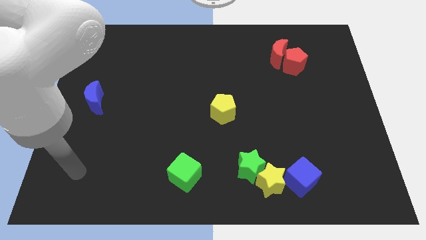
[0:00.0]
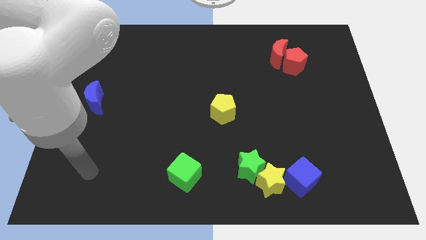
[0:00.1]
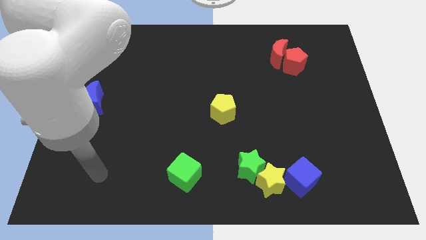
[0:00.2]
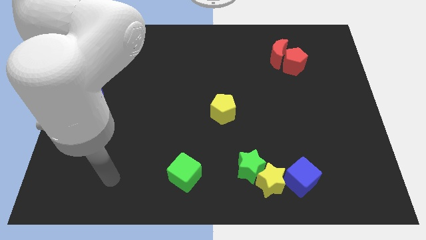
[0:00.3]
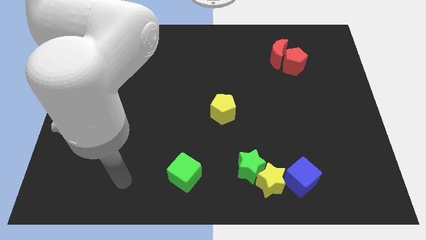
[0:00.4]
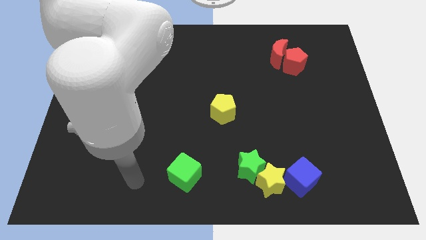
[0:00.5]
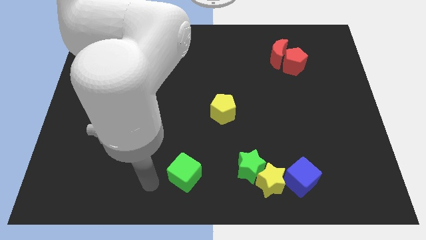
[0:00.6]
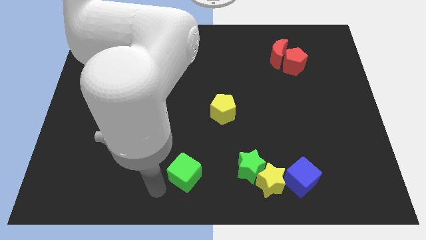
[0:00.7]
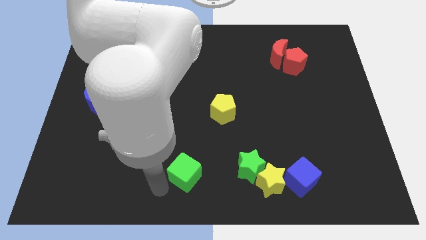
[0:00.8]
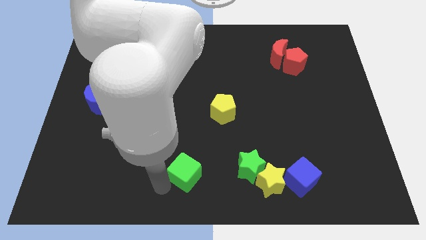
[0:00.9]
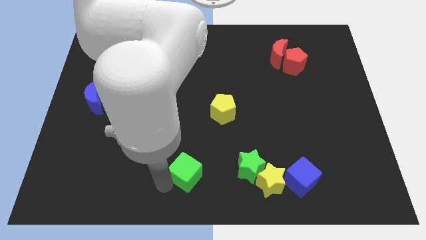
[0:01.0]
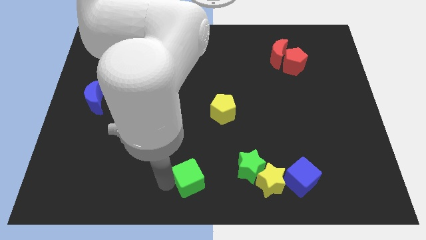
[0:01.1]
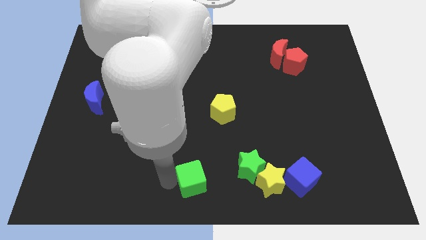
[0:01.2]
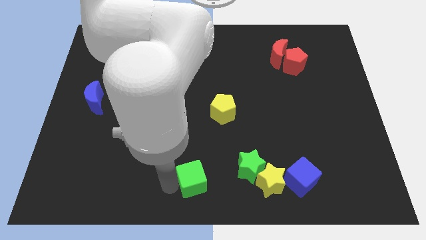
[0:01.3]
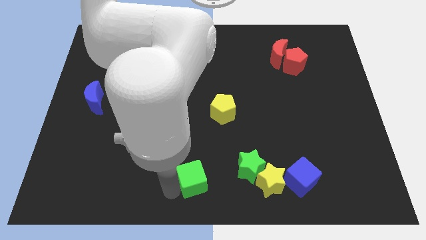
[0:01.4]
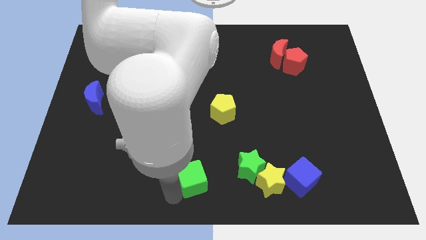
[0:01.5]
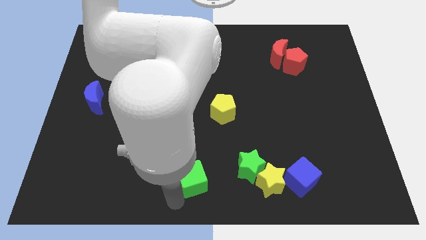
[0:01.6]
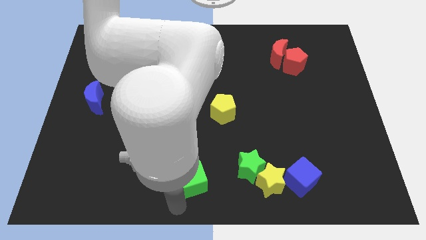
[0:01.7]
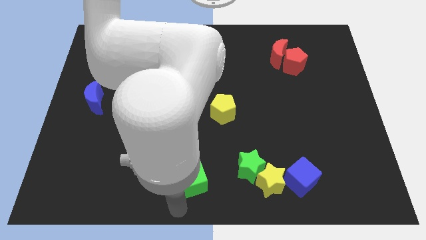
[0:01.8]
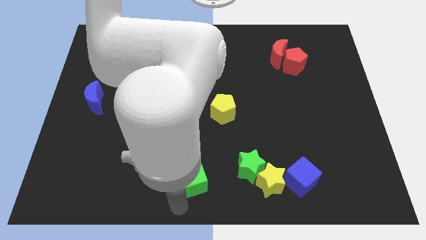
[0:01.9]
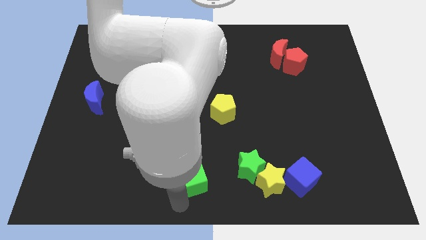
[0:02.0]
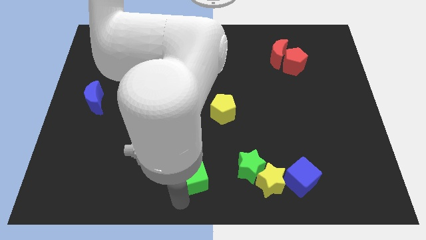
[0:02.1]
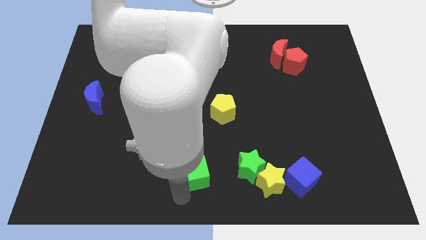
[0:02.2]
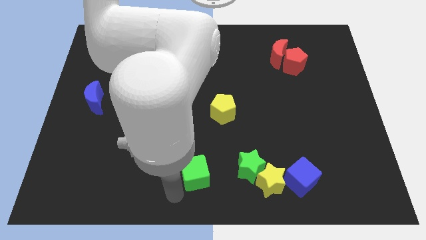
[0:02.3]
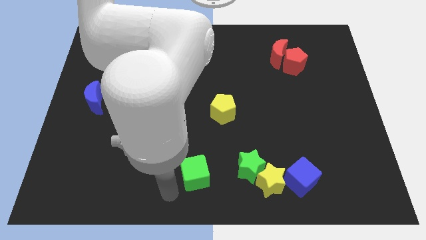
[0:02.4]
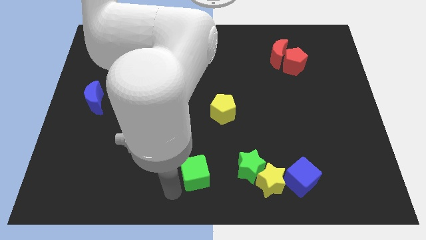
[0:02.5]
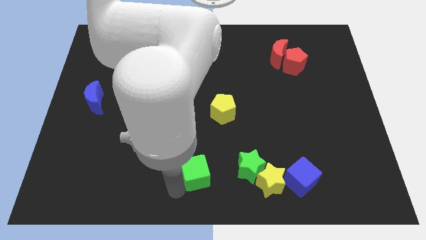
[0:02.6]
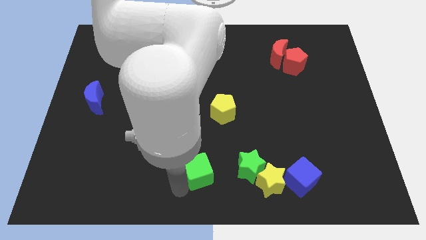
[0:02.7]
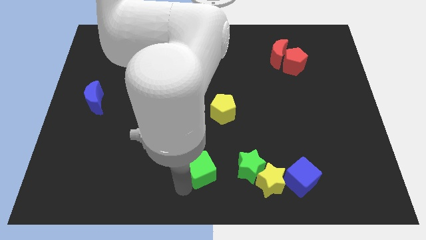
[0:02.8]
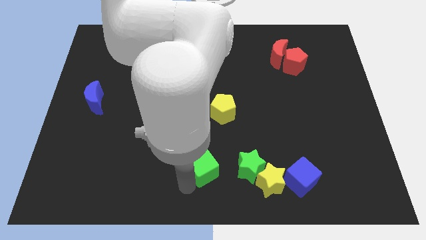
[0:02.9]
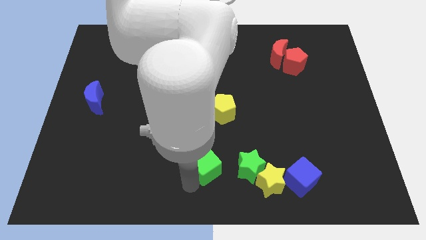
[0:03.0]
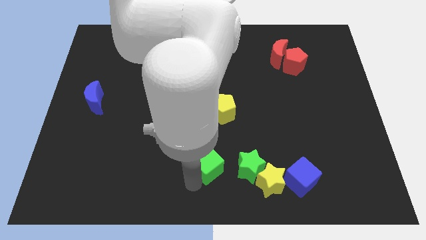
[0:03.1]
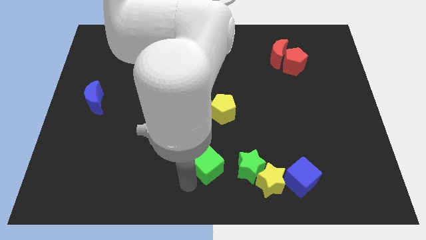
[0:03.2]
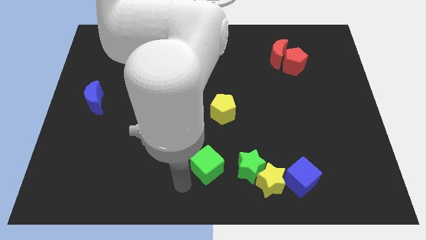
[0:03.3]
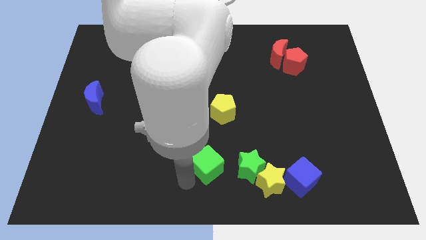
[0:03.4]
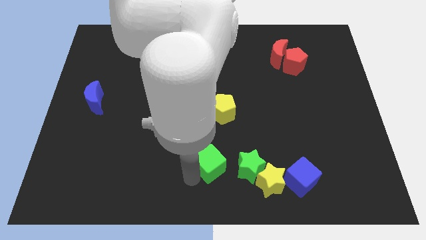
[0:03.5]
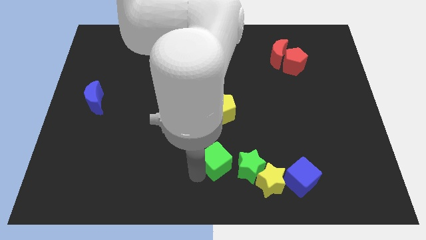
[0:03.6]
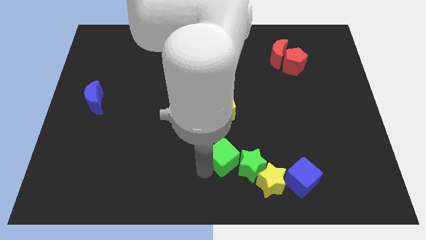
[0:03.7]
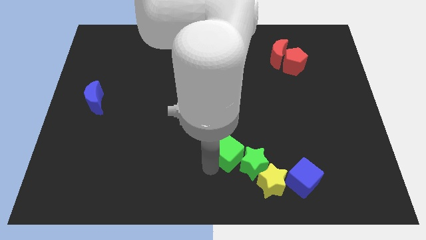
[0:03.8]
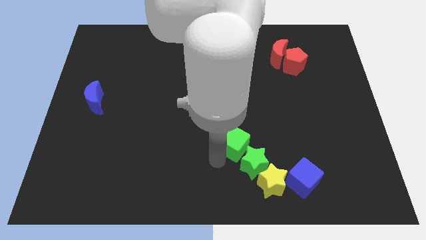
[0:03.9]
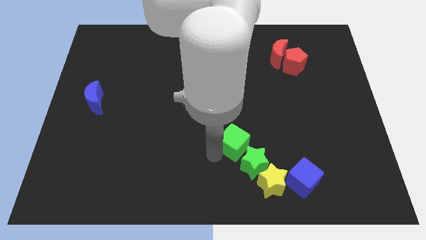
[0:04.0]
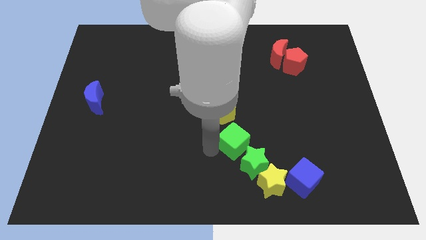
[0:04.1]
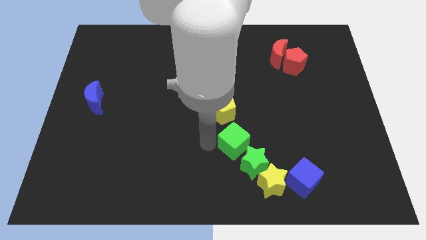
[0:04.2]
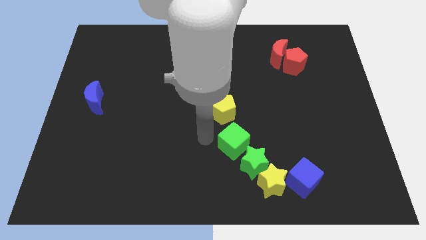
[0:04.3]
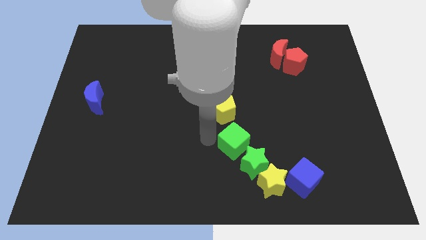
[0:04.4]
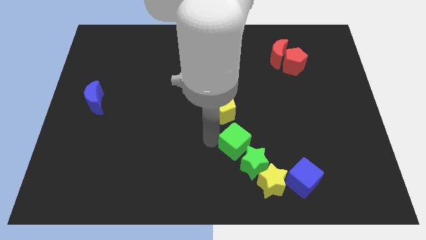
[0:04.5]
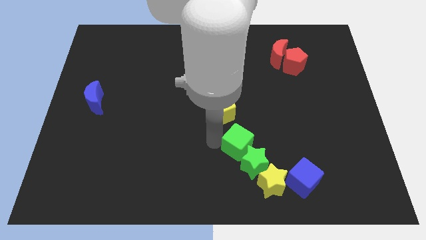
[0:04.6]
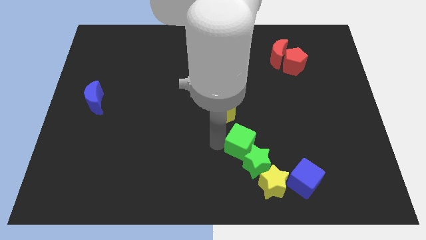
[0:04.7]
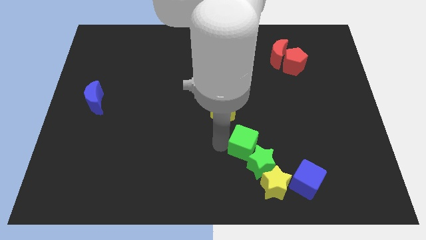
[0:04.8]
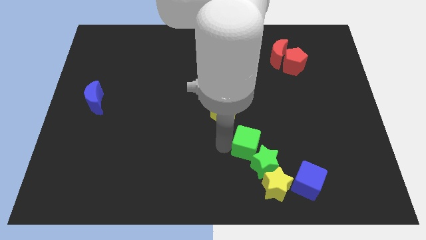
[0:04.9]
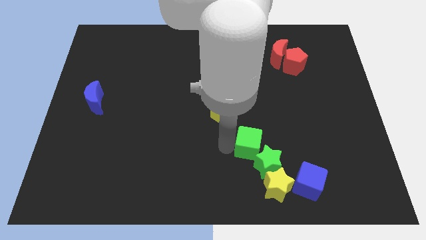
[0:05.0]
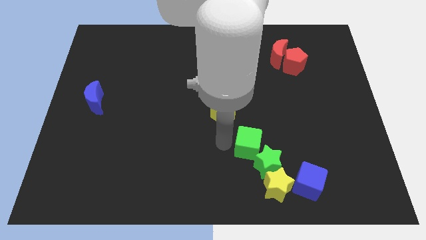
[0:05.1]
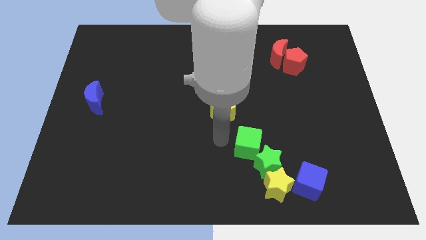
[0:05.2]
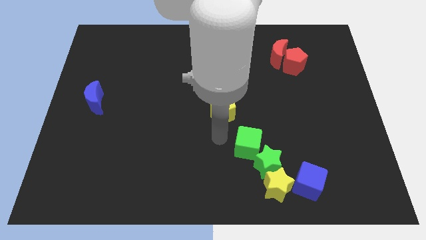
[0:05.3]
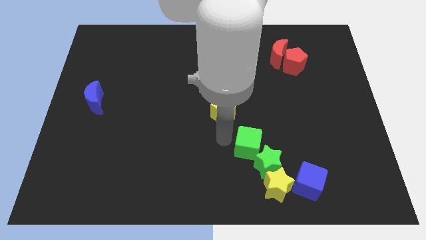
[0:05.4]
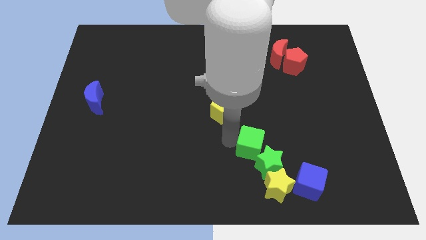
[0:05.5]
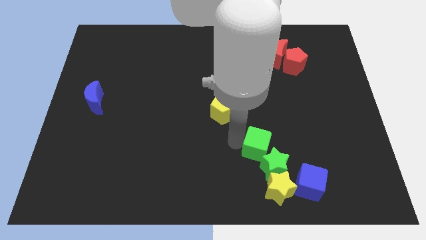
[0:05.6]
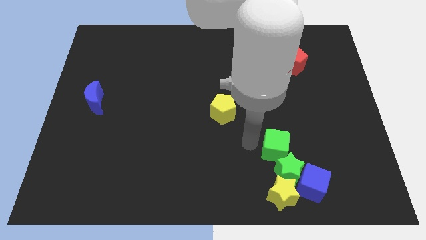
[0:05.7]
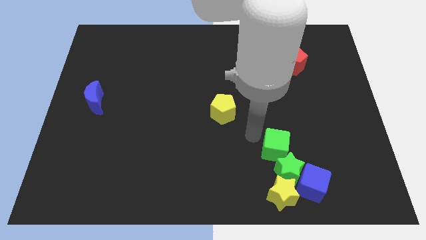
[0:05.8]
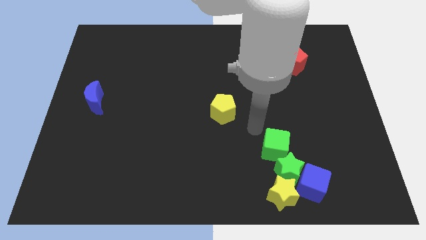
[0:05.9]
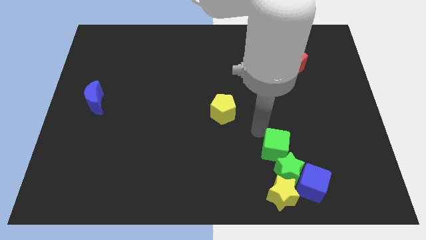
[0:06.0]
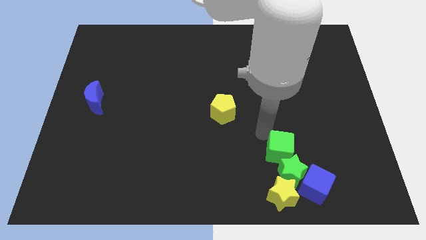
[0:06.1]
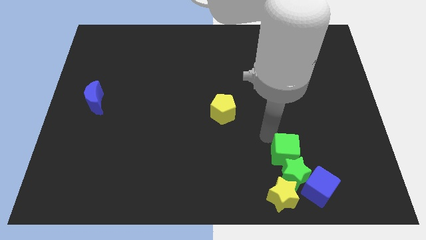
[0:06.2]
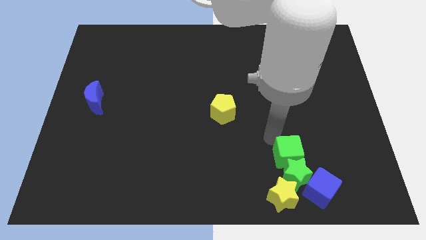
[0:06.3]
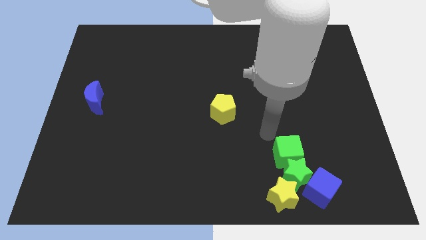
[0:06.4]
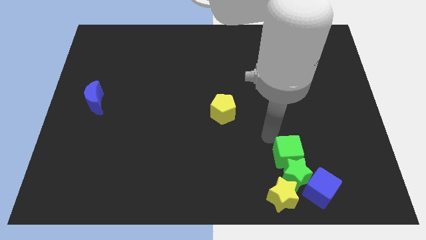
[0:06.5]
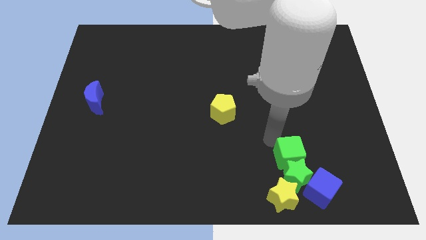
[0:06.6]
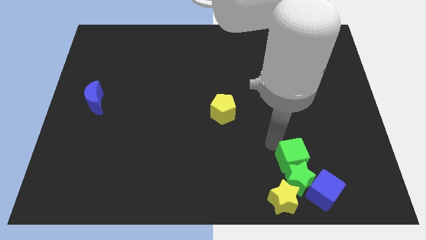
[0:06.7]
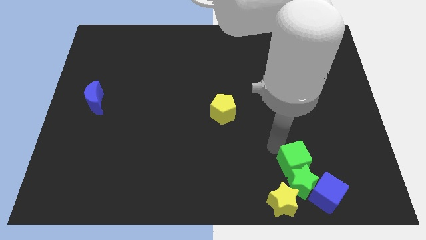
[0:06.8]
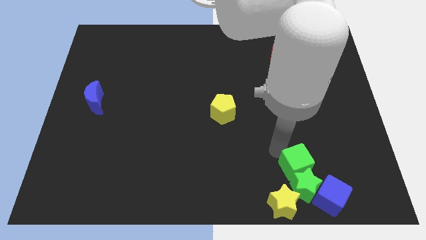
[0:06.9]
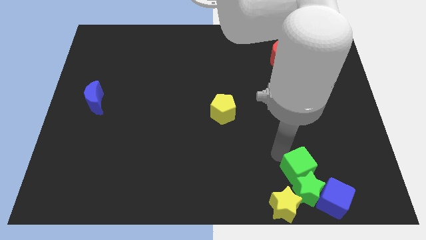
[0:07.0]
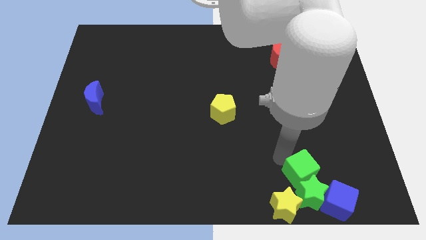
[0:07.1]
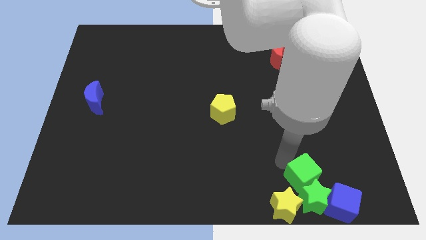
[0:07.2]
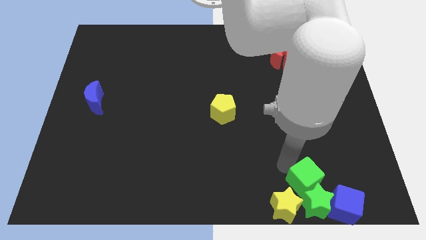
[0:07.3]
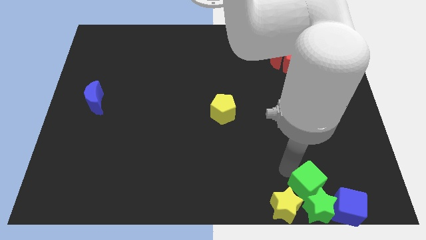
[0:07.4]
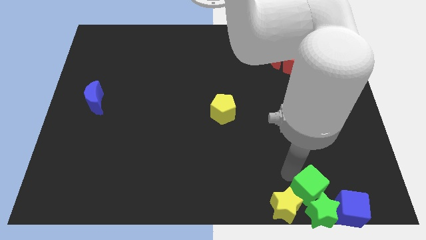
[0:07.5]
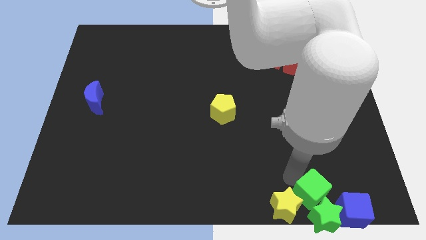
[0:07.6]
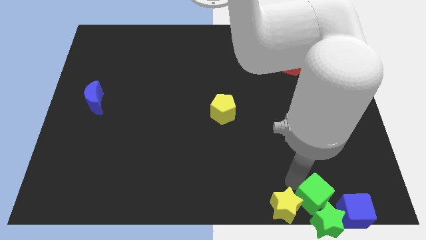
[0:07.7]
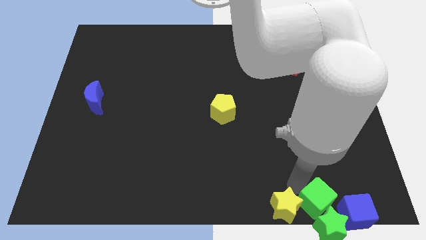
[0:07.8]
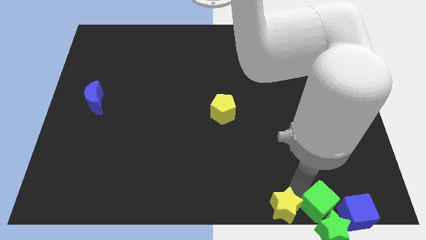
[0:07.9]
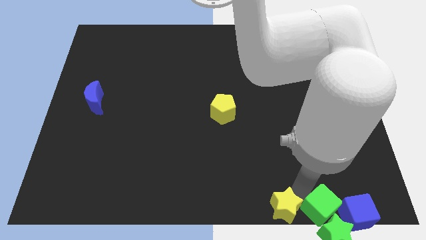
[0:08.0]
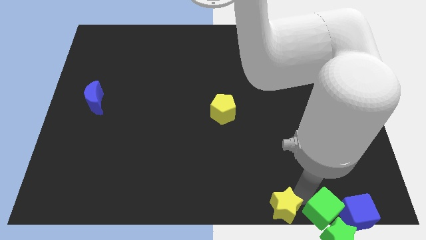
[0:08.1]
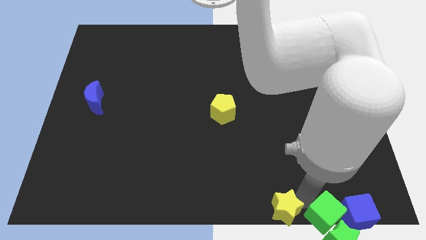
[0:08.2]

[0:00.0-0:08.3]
push the green cube to the blue cube
